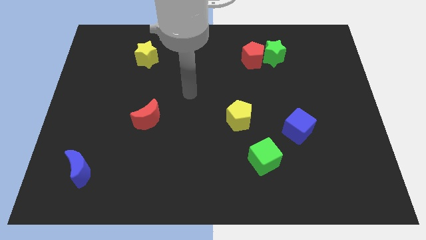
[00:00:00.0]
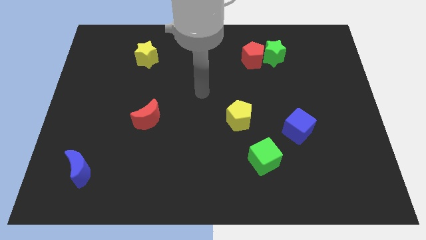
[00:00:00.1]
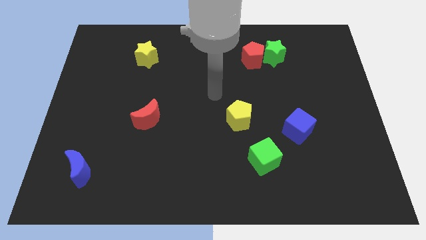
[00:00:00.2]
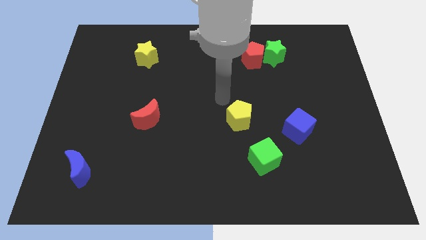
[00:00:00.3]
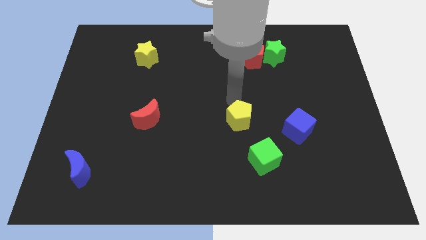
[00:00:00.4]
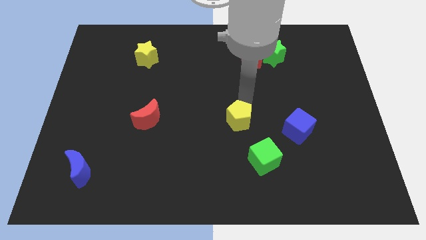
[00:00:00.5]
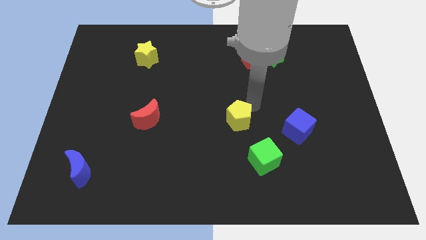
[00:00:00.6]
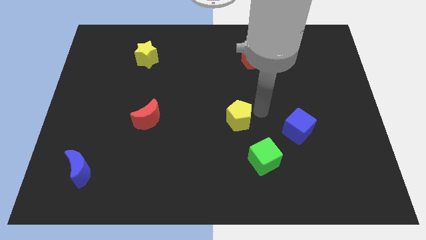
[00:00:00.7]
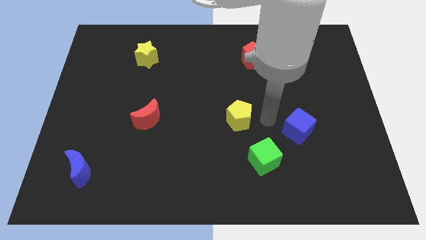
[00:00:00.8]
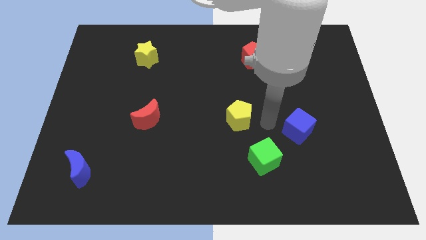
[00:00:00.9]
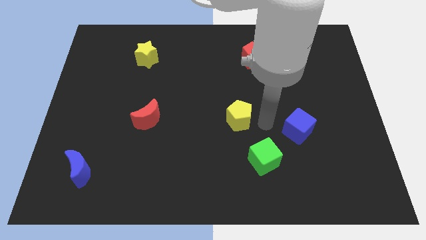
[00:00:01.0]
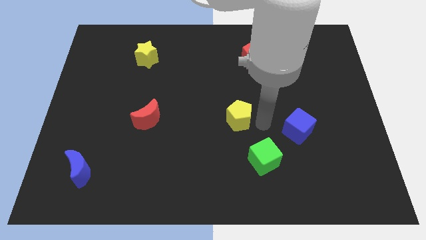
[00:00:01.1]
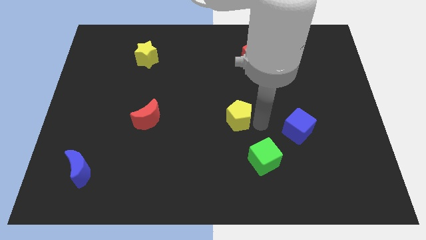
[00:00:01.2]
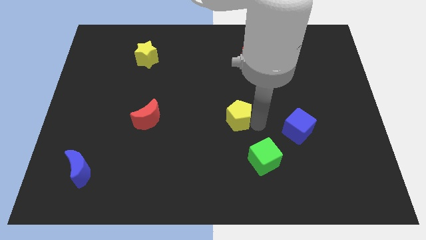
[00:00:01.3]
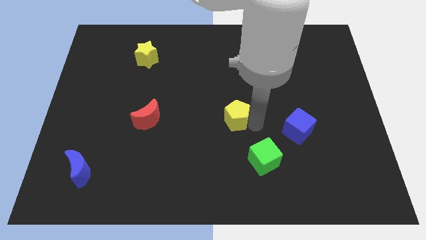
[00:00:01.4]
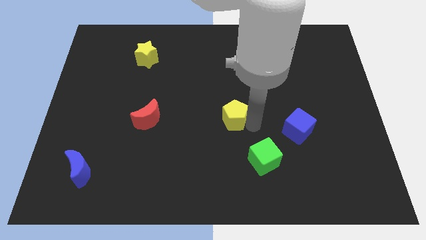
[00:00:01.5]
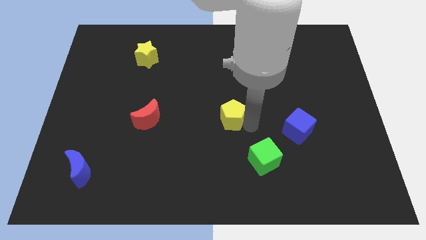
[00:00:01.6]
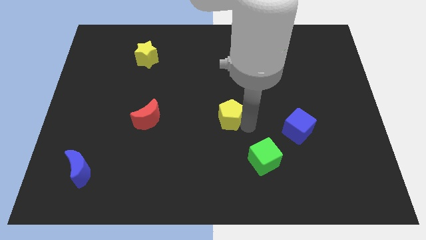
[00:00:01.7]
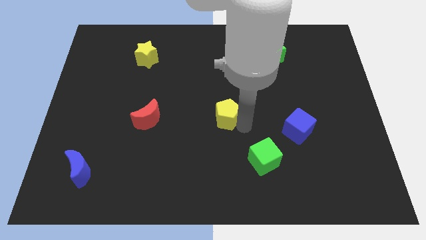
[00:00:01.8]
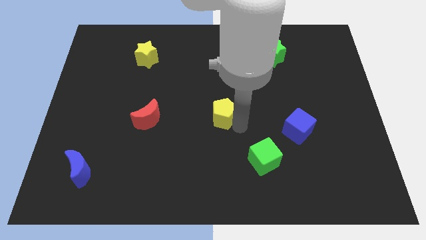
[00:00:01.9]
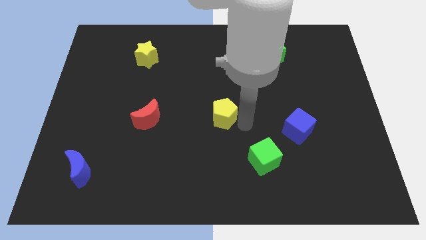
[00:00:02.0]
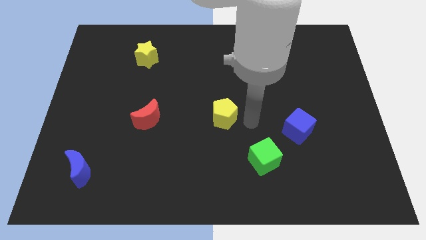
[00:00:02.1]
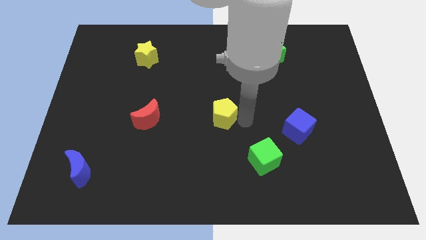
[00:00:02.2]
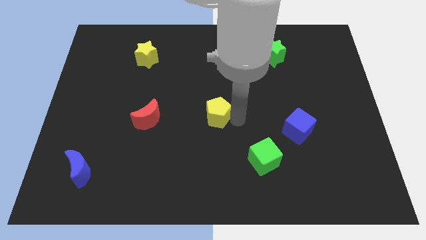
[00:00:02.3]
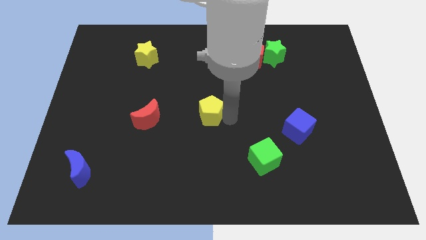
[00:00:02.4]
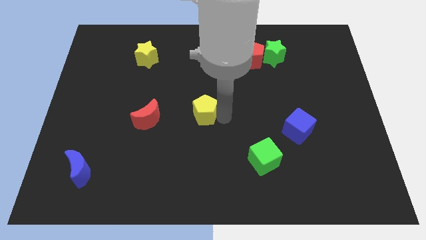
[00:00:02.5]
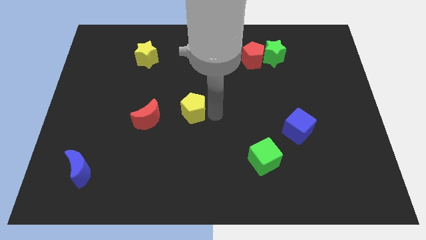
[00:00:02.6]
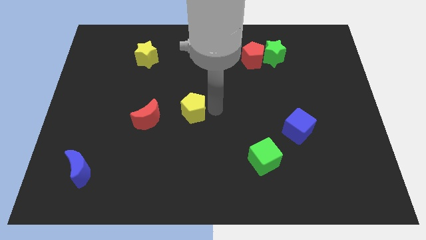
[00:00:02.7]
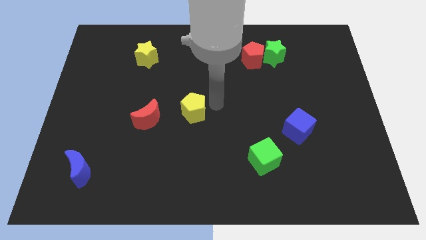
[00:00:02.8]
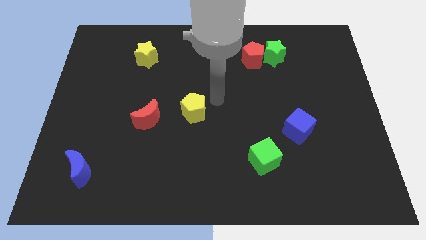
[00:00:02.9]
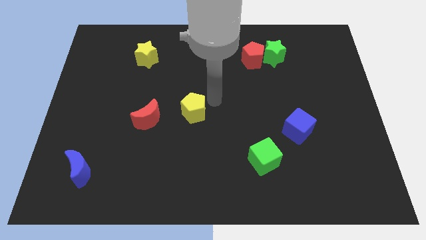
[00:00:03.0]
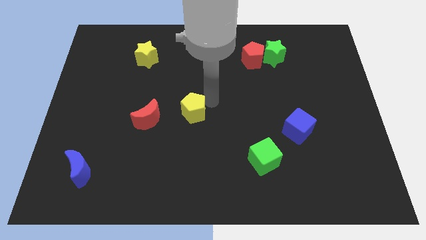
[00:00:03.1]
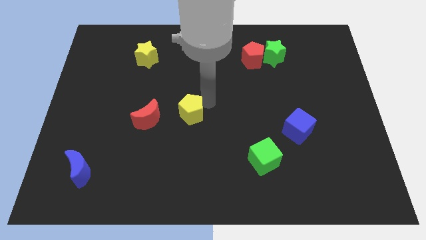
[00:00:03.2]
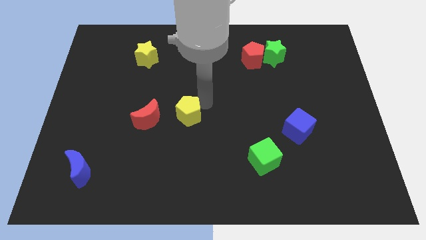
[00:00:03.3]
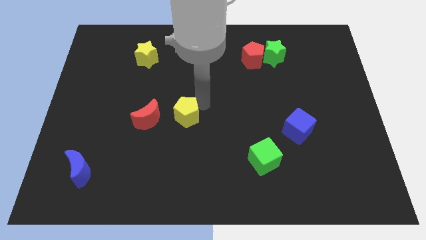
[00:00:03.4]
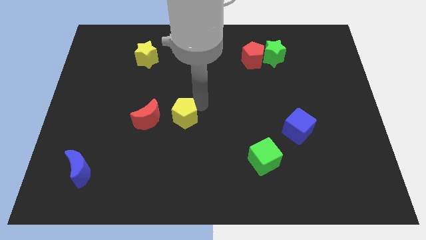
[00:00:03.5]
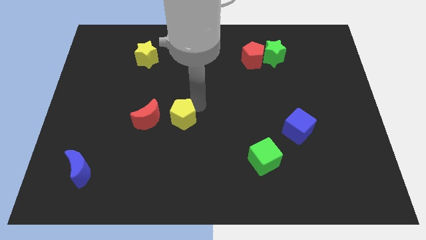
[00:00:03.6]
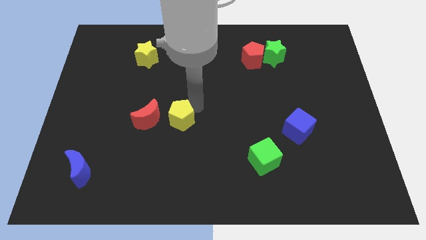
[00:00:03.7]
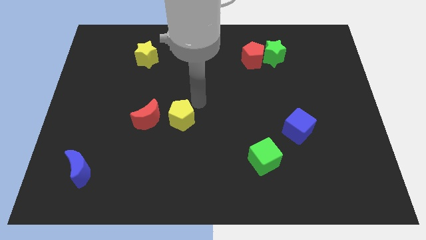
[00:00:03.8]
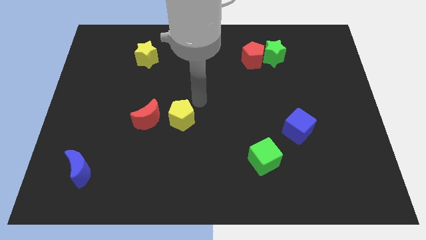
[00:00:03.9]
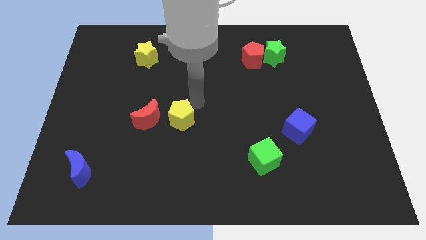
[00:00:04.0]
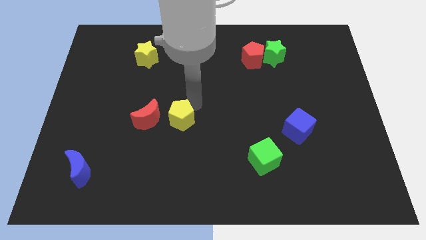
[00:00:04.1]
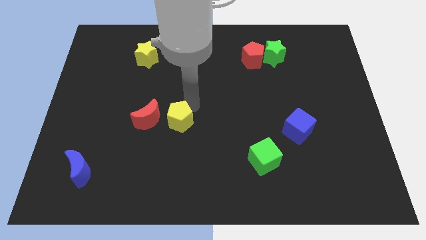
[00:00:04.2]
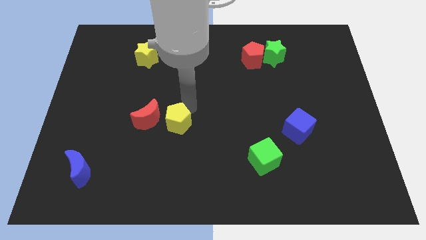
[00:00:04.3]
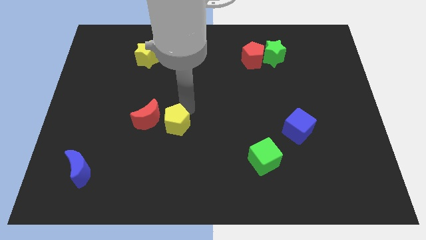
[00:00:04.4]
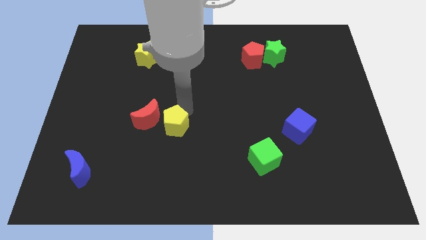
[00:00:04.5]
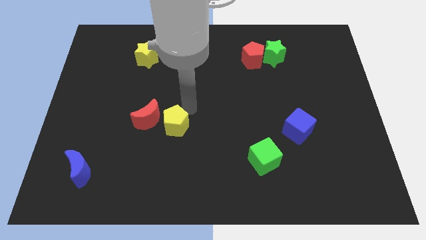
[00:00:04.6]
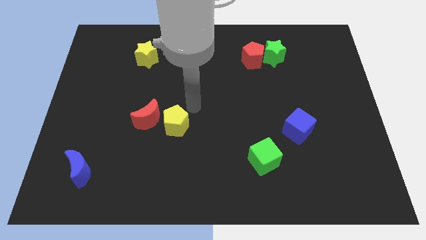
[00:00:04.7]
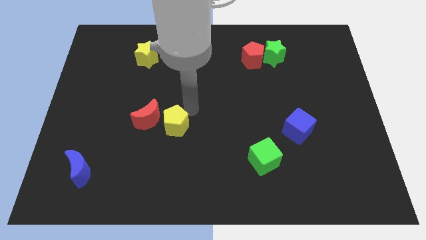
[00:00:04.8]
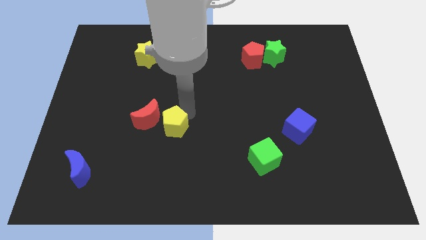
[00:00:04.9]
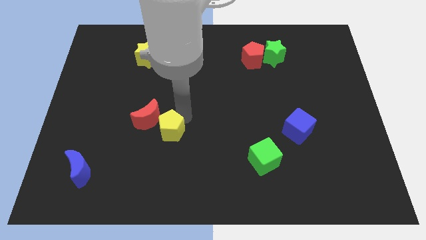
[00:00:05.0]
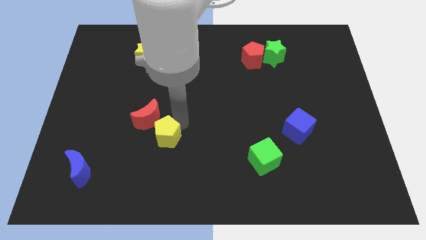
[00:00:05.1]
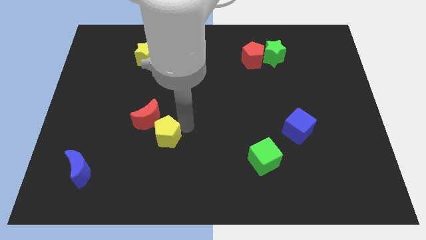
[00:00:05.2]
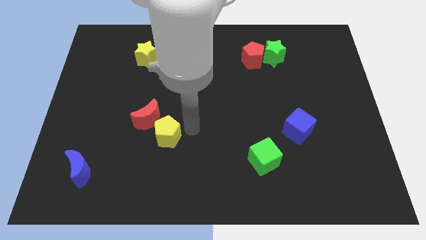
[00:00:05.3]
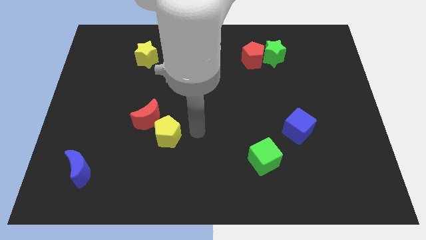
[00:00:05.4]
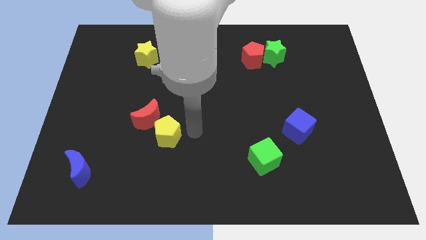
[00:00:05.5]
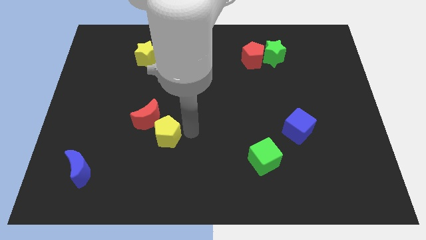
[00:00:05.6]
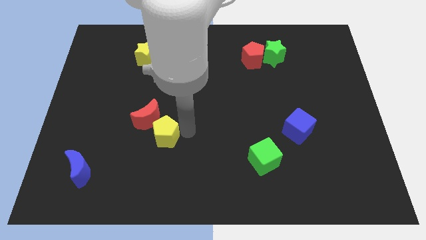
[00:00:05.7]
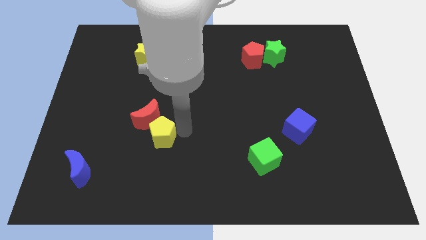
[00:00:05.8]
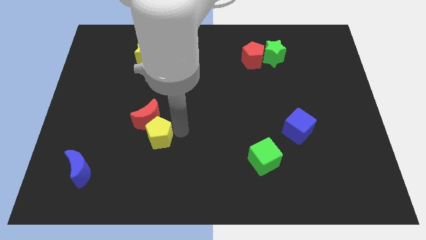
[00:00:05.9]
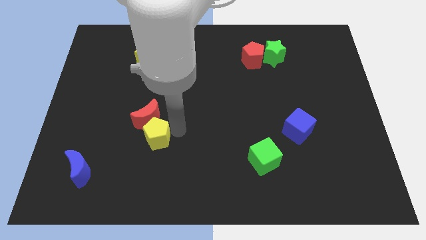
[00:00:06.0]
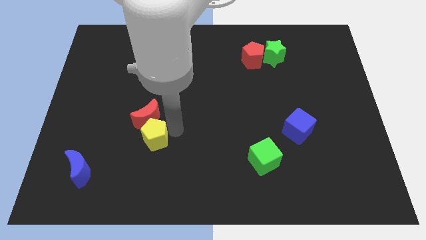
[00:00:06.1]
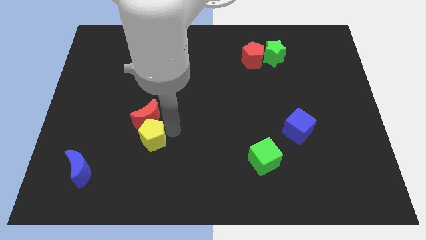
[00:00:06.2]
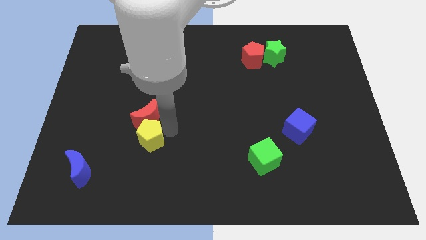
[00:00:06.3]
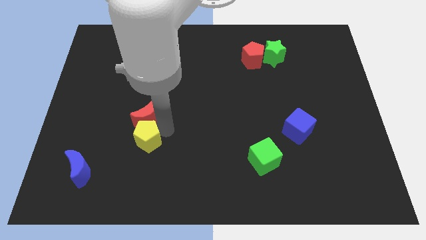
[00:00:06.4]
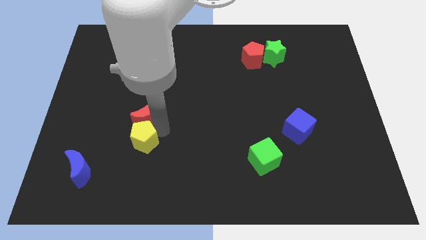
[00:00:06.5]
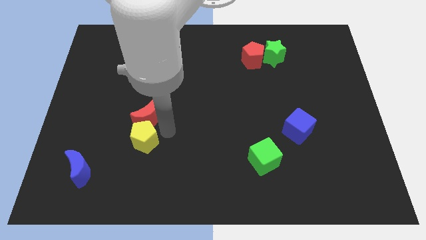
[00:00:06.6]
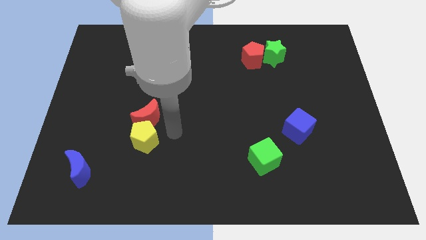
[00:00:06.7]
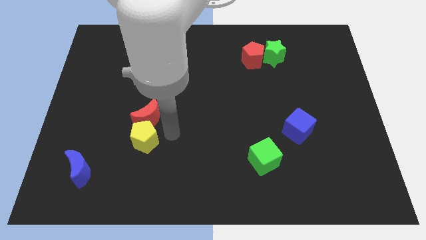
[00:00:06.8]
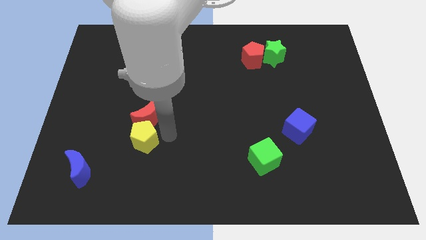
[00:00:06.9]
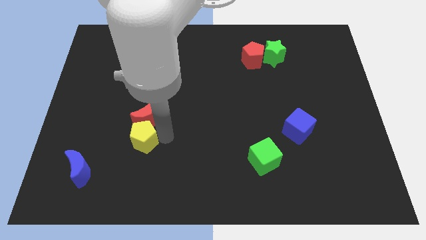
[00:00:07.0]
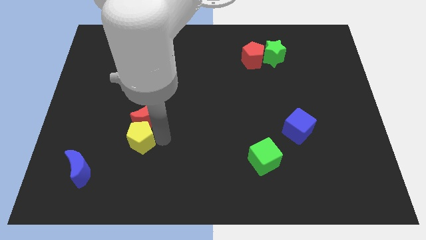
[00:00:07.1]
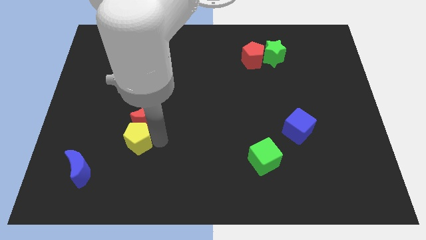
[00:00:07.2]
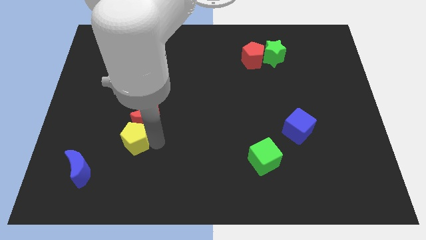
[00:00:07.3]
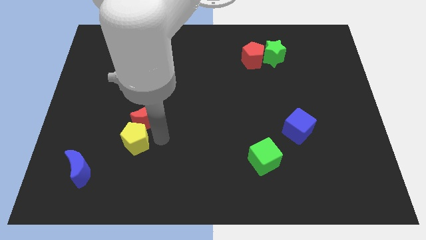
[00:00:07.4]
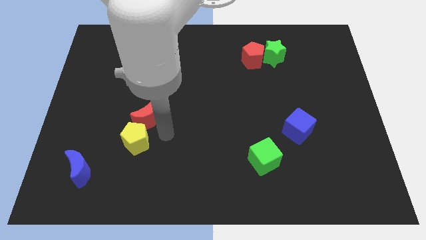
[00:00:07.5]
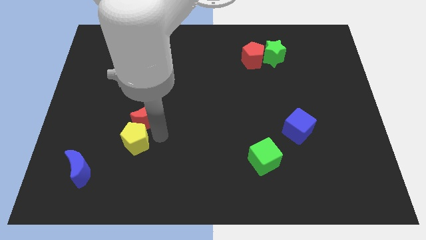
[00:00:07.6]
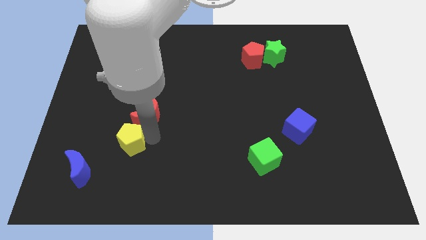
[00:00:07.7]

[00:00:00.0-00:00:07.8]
put the yellow pentagon diagonally up and to the right of the blue moon

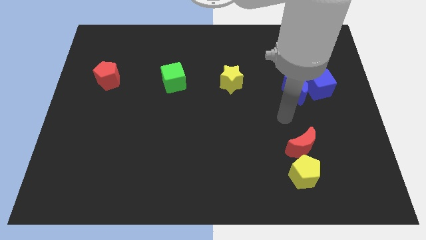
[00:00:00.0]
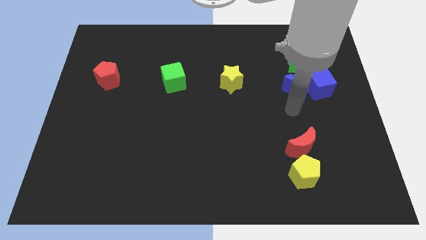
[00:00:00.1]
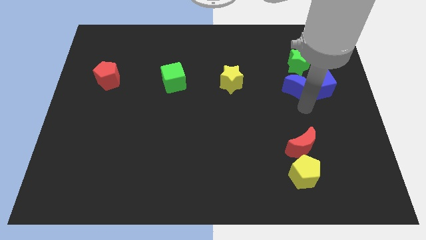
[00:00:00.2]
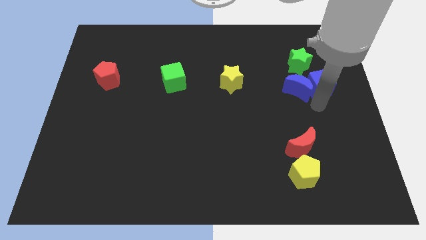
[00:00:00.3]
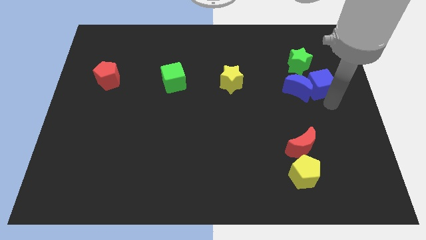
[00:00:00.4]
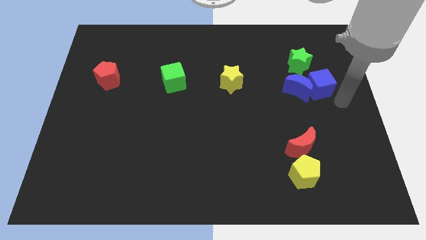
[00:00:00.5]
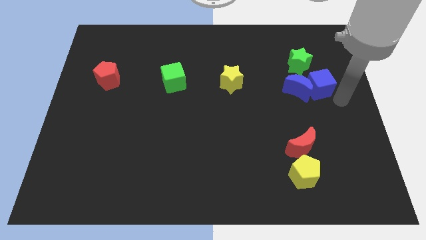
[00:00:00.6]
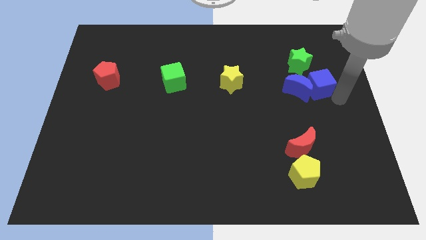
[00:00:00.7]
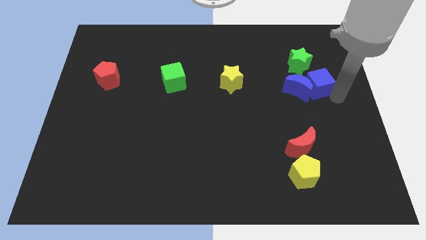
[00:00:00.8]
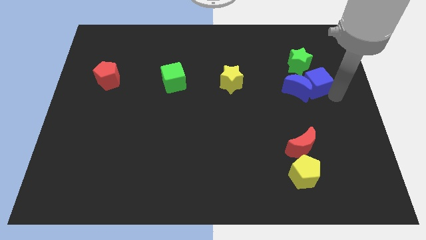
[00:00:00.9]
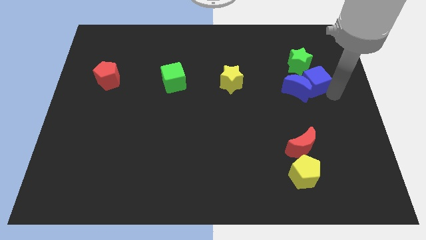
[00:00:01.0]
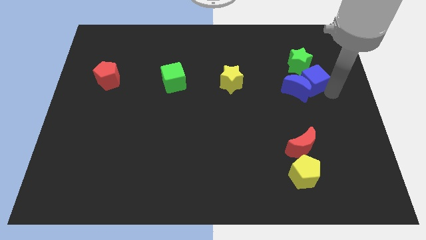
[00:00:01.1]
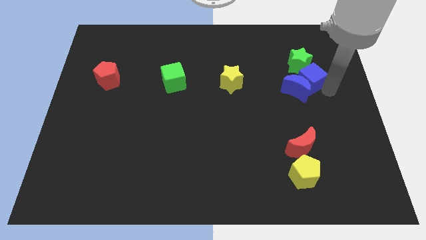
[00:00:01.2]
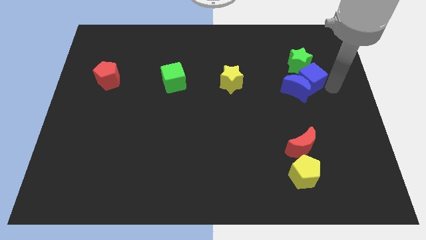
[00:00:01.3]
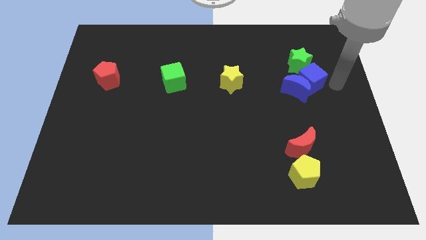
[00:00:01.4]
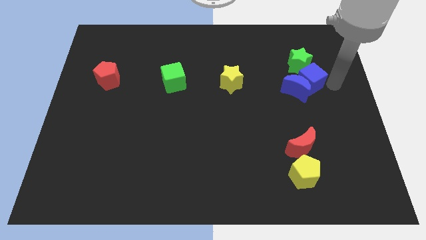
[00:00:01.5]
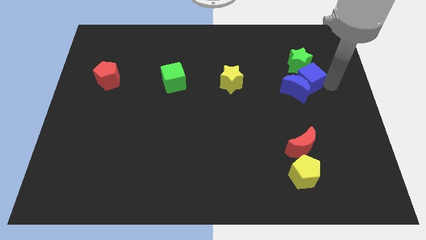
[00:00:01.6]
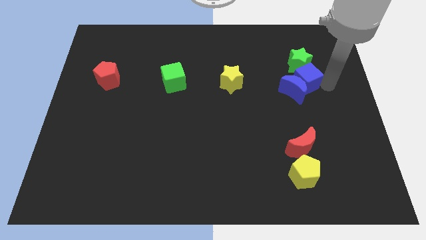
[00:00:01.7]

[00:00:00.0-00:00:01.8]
move the blue cube diagonally down and to the left of the green star
